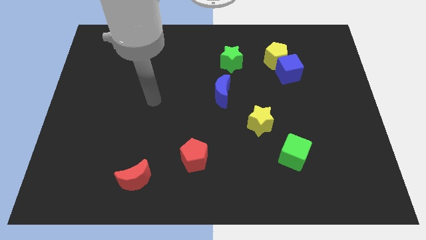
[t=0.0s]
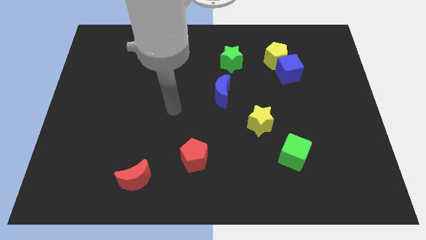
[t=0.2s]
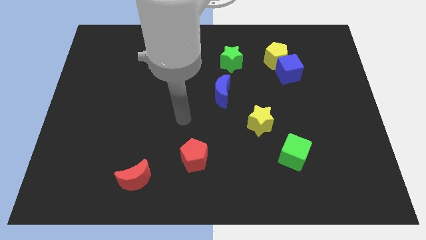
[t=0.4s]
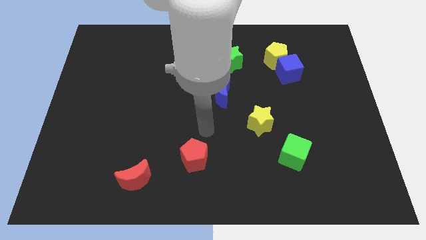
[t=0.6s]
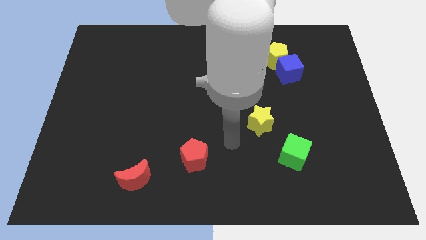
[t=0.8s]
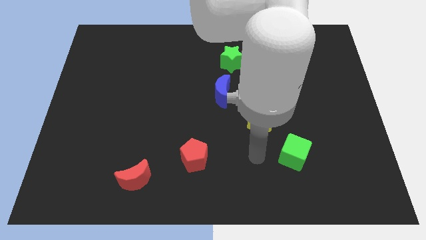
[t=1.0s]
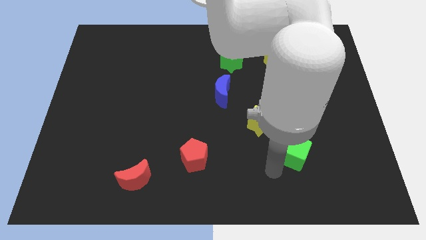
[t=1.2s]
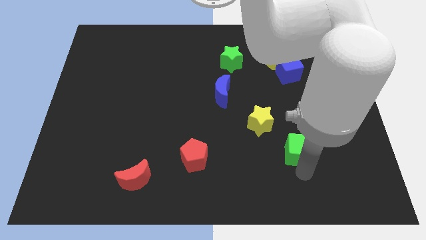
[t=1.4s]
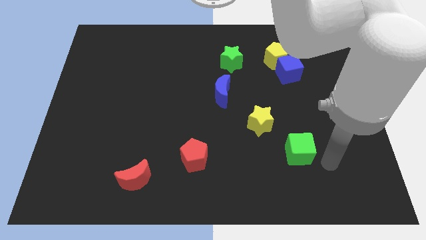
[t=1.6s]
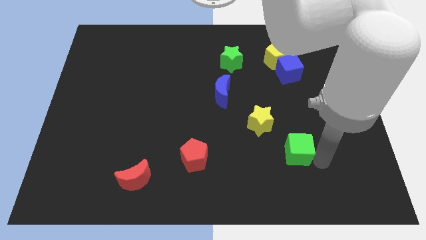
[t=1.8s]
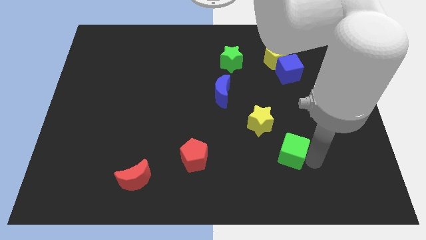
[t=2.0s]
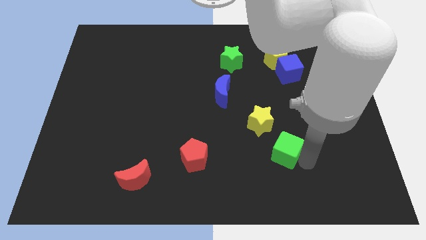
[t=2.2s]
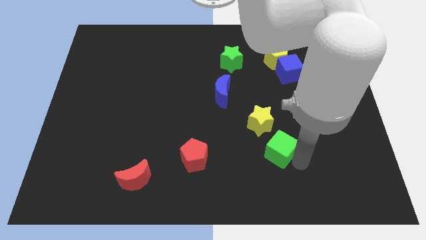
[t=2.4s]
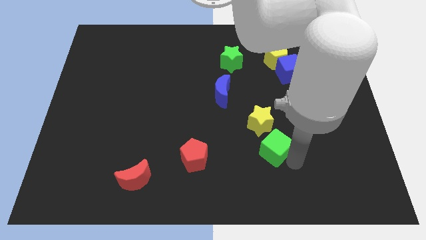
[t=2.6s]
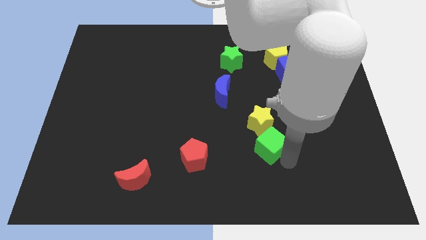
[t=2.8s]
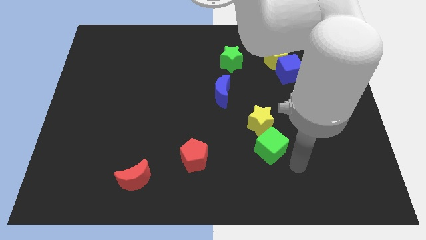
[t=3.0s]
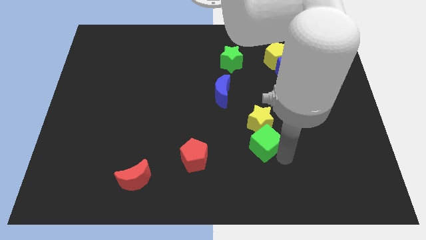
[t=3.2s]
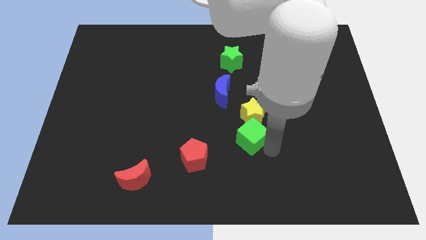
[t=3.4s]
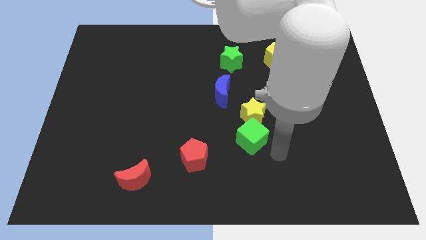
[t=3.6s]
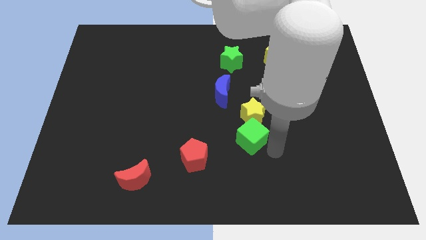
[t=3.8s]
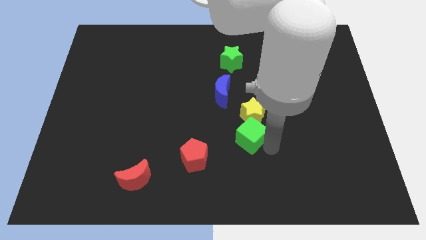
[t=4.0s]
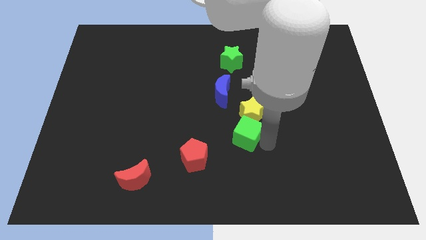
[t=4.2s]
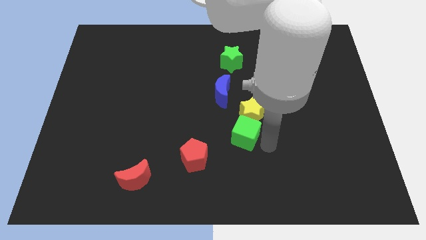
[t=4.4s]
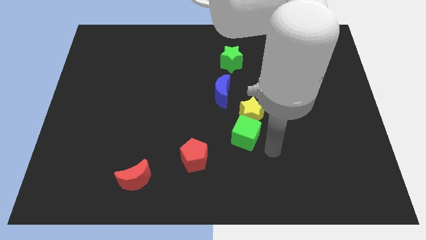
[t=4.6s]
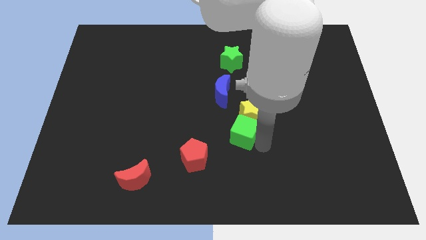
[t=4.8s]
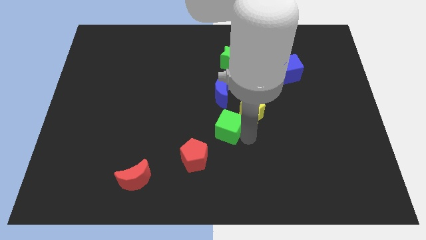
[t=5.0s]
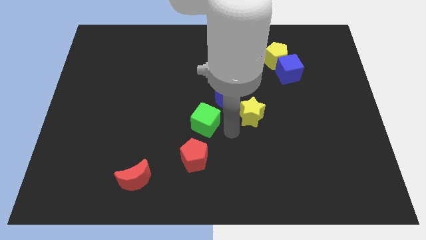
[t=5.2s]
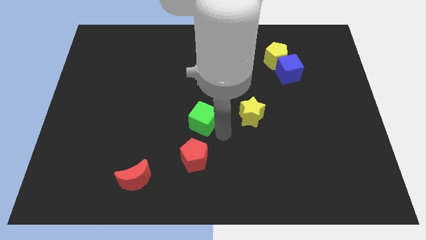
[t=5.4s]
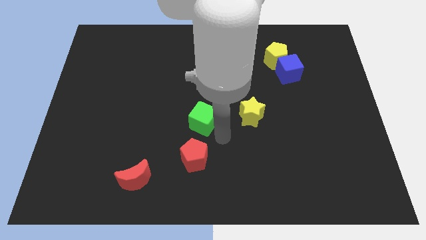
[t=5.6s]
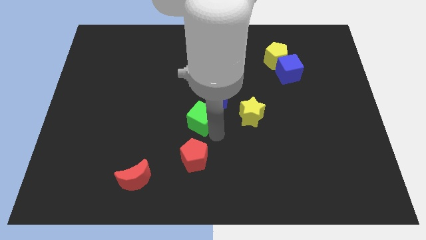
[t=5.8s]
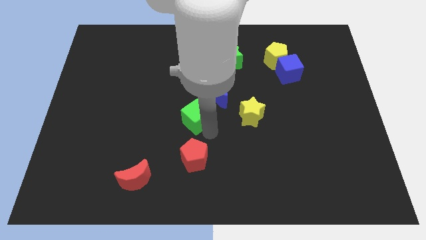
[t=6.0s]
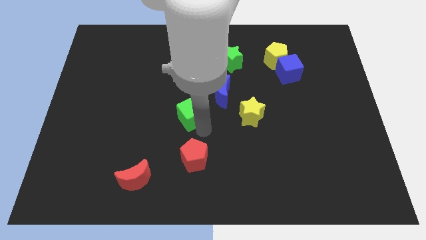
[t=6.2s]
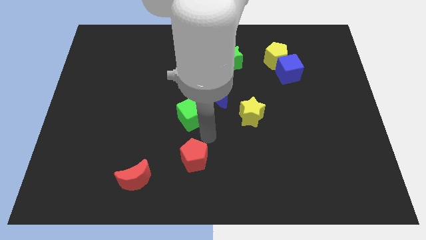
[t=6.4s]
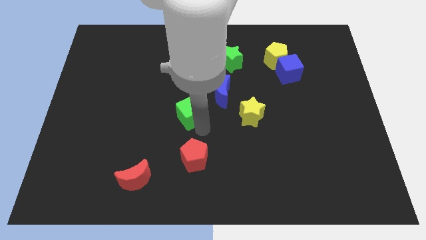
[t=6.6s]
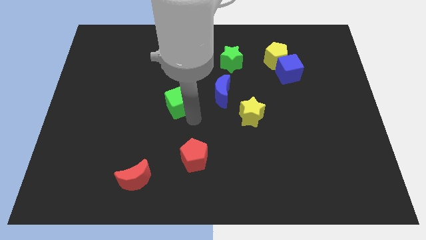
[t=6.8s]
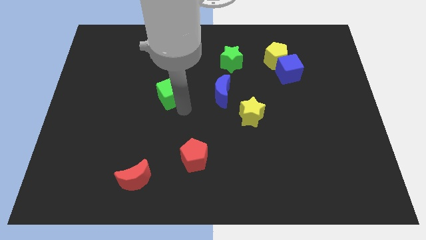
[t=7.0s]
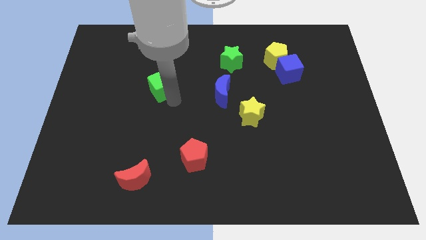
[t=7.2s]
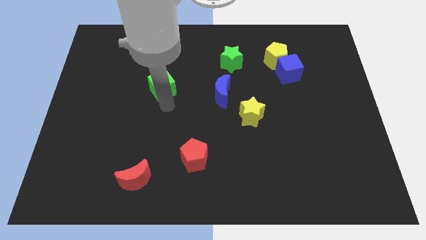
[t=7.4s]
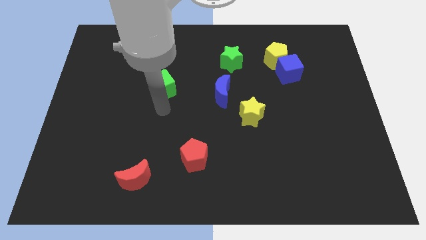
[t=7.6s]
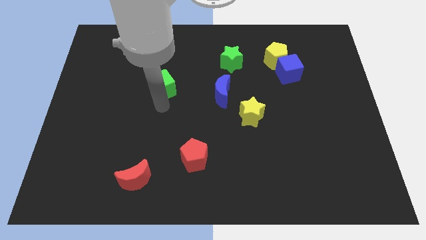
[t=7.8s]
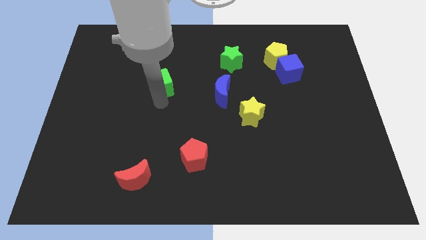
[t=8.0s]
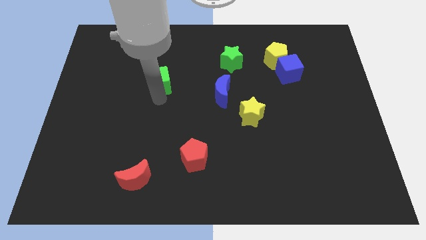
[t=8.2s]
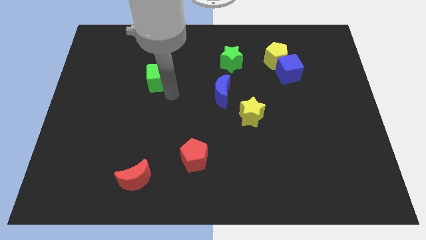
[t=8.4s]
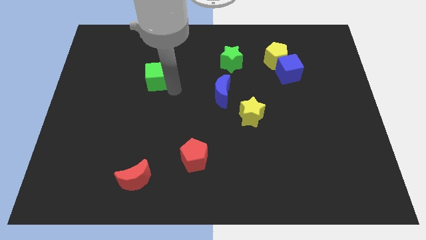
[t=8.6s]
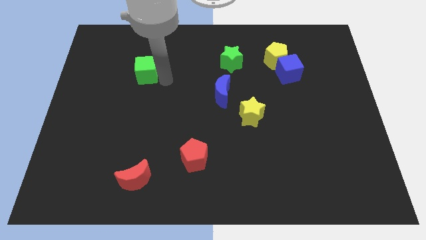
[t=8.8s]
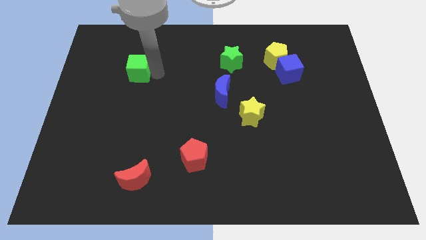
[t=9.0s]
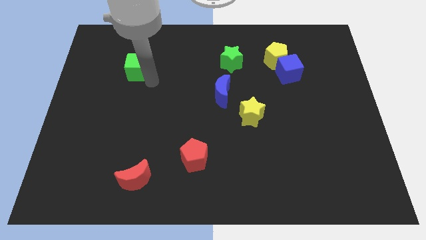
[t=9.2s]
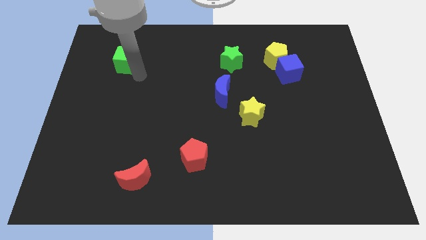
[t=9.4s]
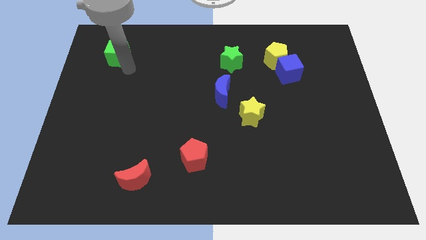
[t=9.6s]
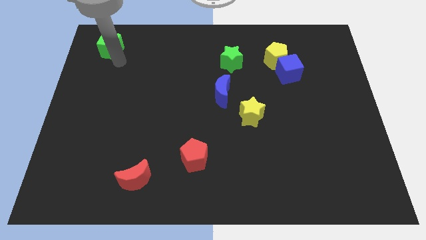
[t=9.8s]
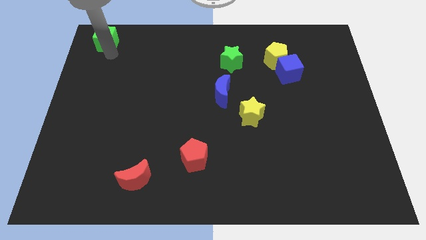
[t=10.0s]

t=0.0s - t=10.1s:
slide the green cube to the top left

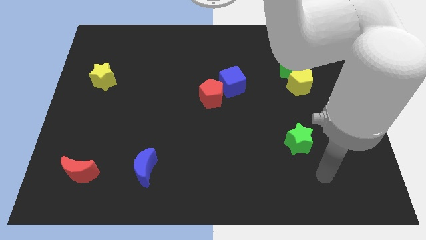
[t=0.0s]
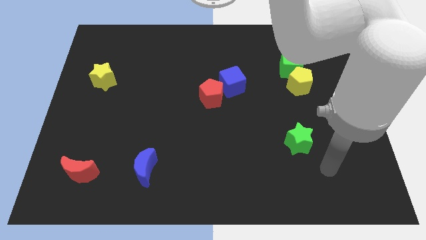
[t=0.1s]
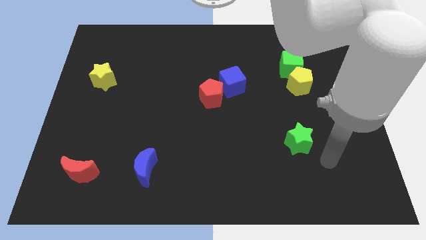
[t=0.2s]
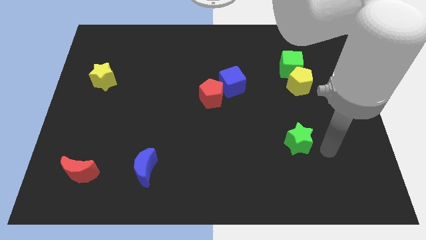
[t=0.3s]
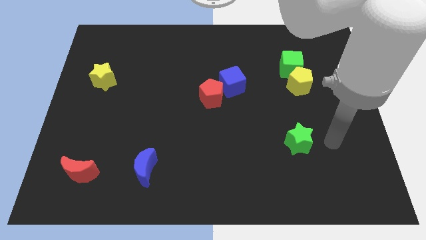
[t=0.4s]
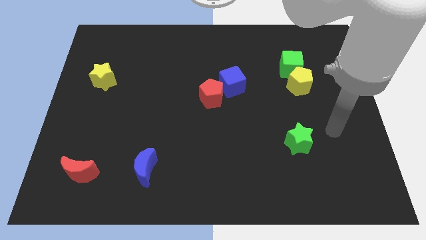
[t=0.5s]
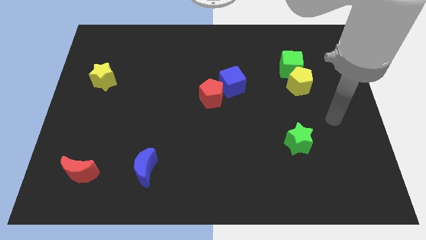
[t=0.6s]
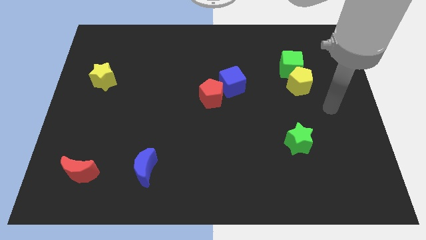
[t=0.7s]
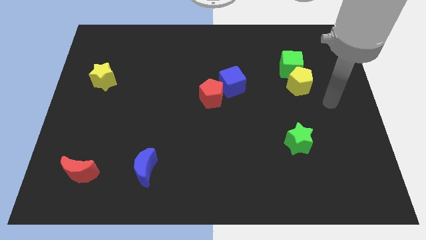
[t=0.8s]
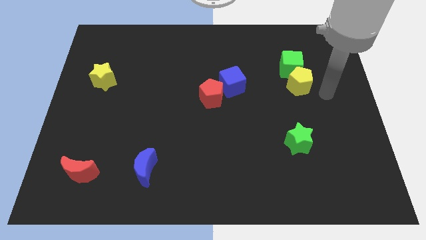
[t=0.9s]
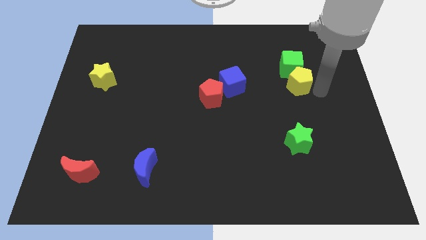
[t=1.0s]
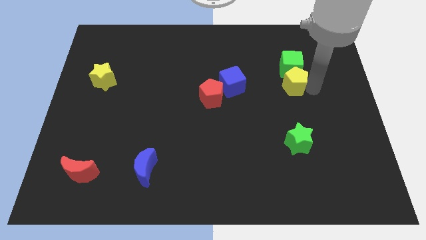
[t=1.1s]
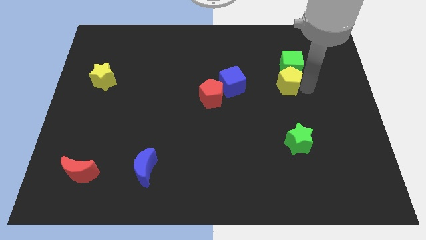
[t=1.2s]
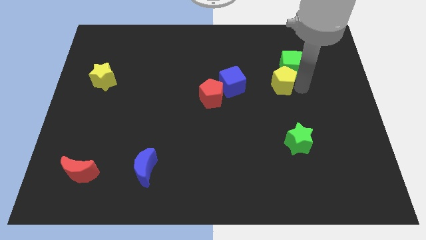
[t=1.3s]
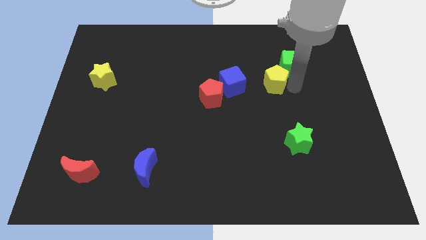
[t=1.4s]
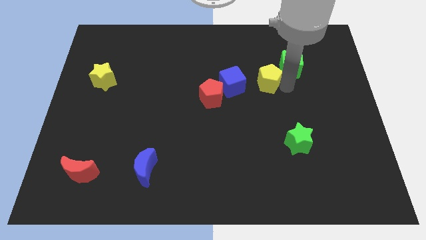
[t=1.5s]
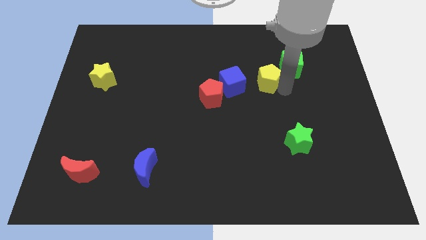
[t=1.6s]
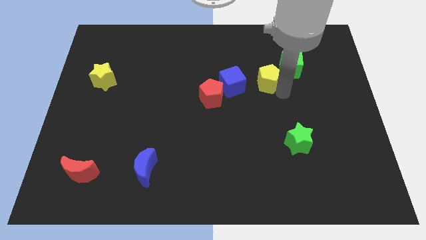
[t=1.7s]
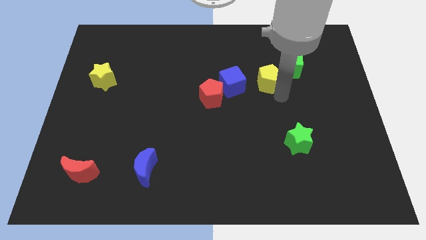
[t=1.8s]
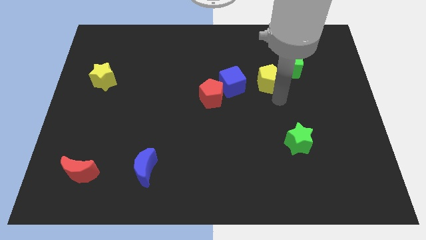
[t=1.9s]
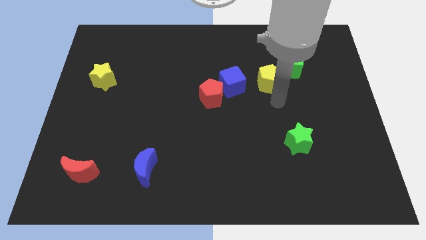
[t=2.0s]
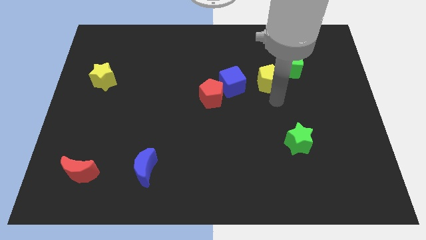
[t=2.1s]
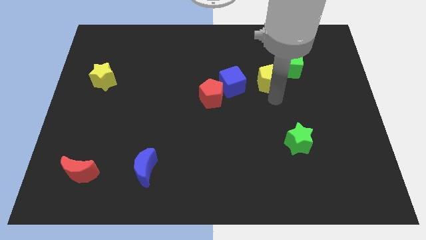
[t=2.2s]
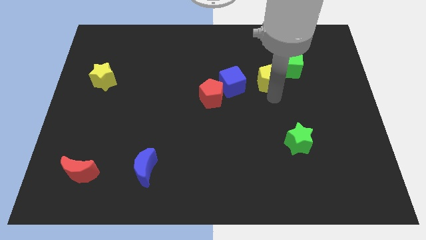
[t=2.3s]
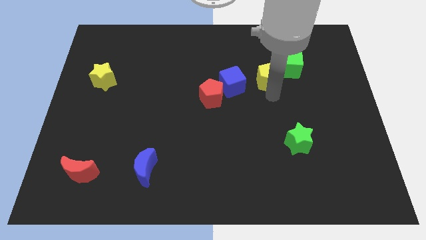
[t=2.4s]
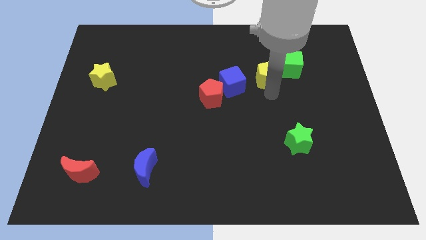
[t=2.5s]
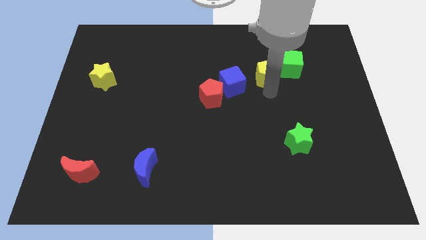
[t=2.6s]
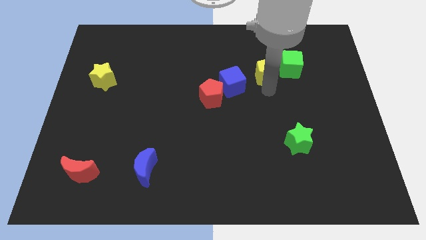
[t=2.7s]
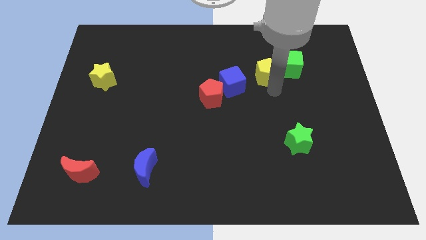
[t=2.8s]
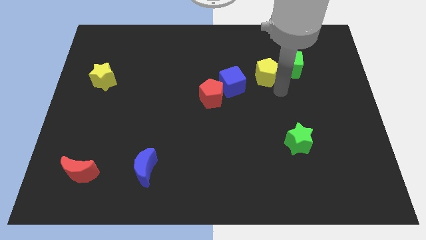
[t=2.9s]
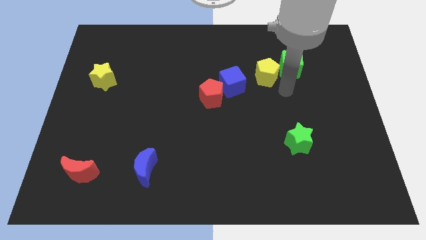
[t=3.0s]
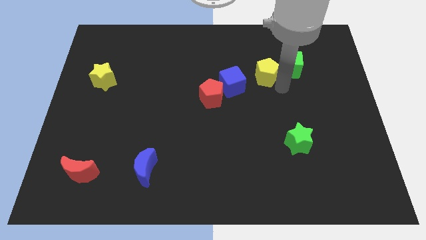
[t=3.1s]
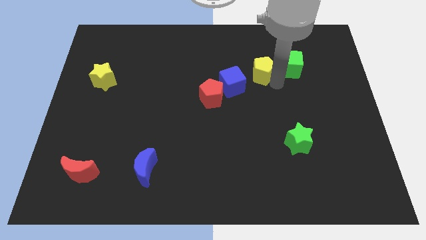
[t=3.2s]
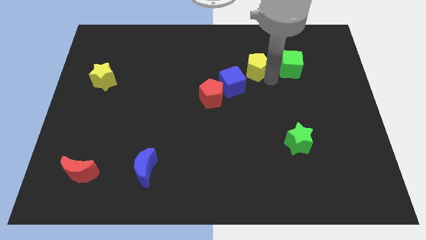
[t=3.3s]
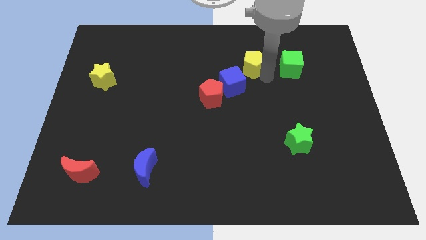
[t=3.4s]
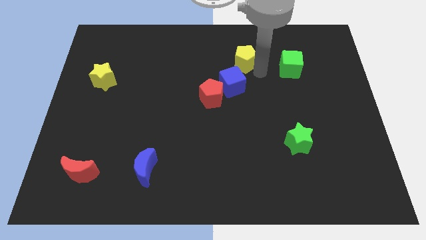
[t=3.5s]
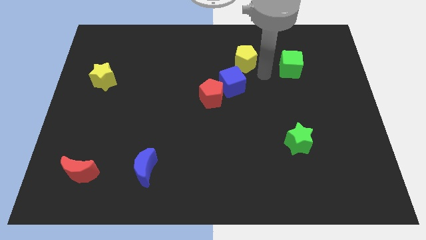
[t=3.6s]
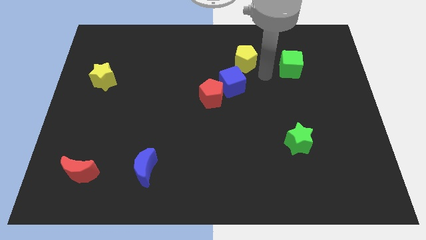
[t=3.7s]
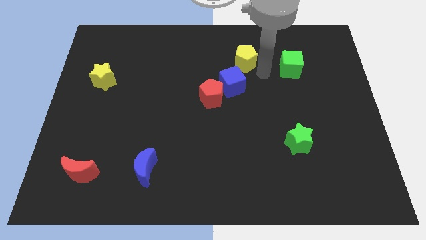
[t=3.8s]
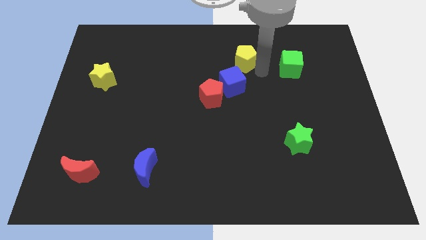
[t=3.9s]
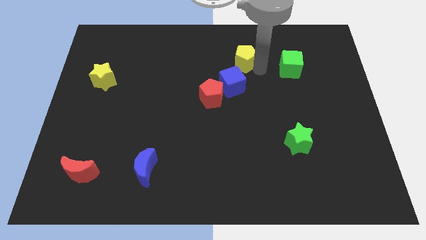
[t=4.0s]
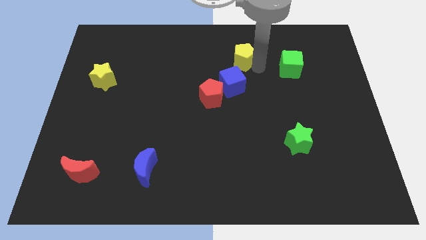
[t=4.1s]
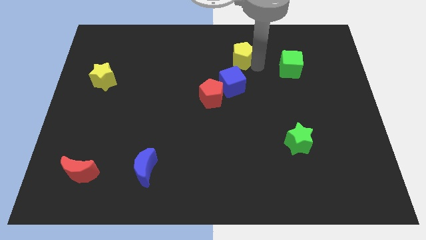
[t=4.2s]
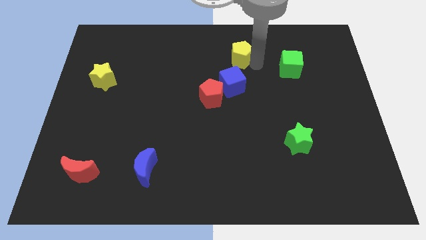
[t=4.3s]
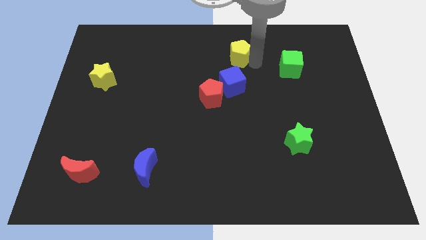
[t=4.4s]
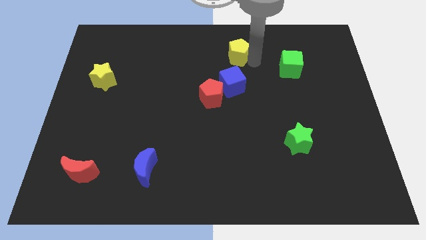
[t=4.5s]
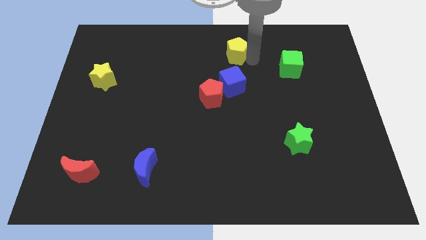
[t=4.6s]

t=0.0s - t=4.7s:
slide the yellow pentagon to the top
